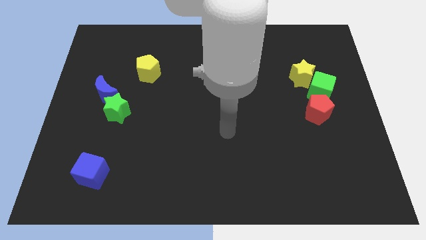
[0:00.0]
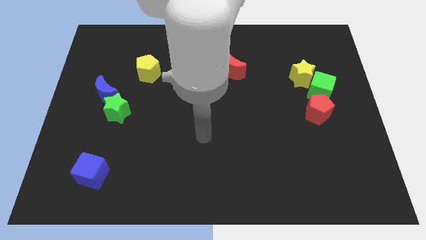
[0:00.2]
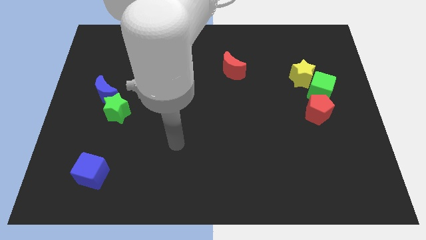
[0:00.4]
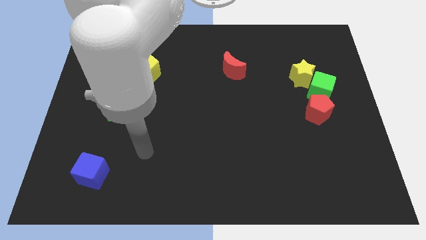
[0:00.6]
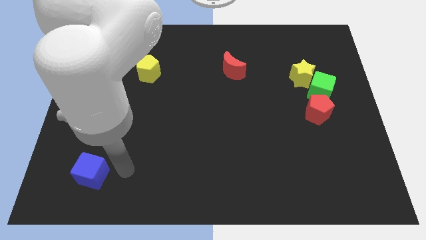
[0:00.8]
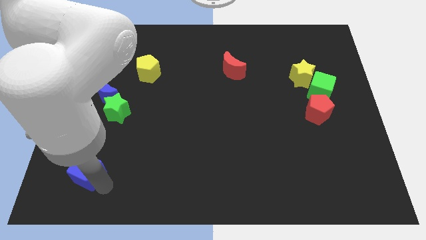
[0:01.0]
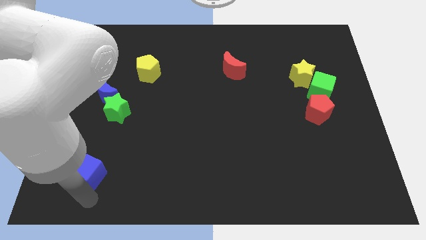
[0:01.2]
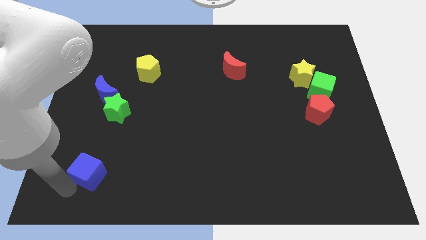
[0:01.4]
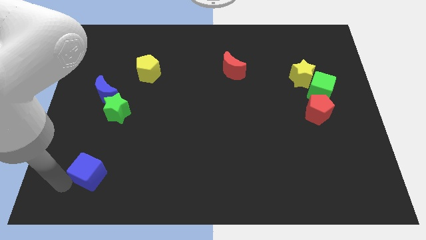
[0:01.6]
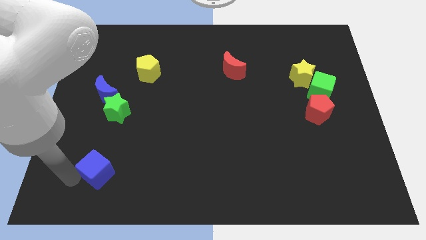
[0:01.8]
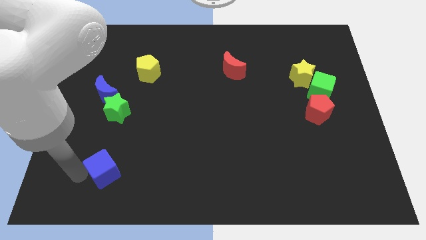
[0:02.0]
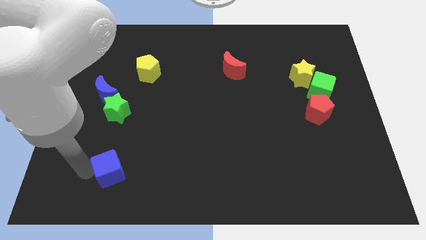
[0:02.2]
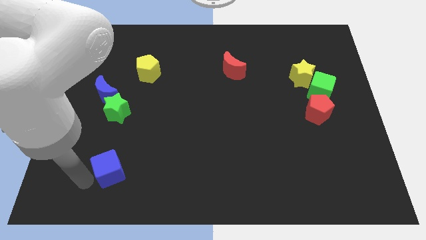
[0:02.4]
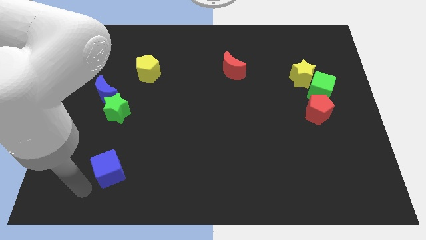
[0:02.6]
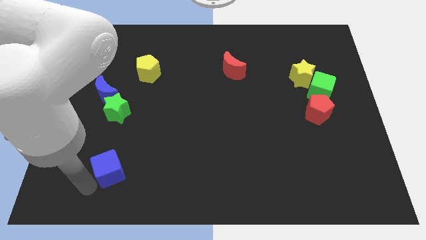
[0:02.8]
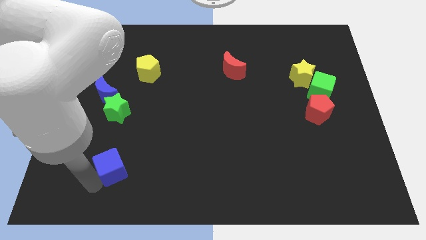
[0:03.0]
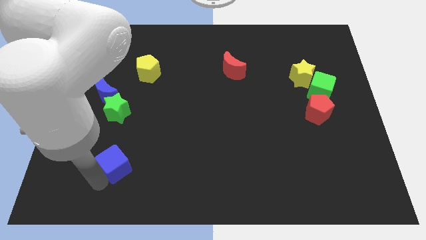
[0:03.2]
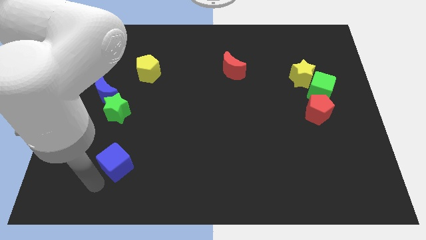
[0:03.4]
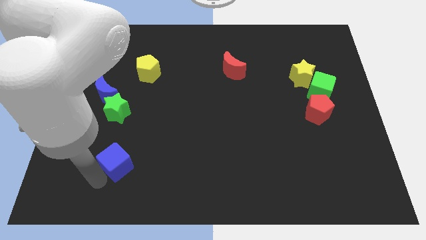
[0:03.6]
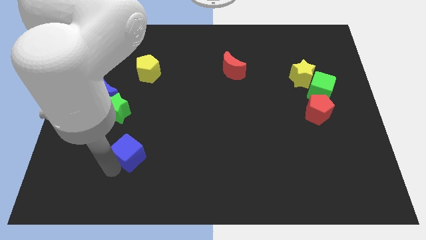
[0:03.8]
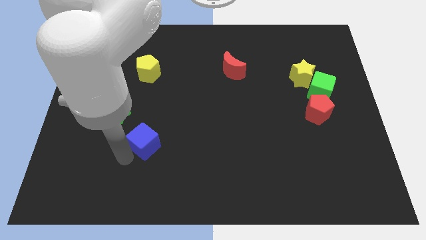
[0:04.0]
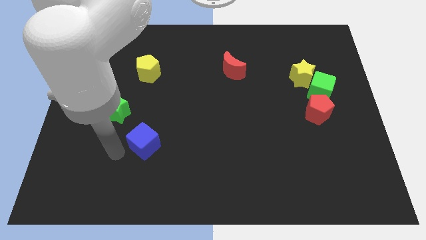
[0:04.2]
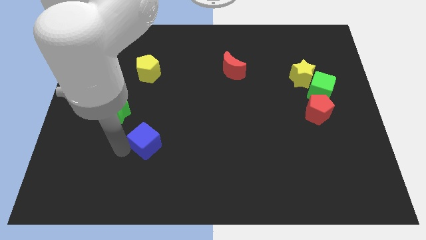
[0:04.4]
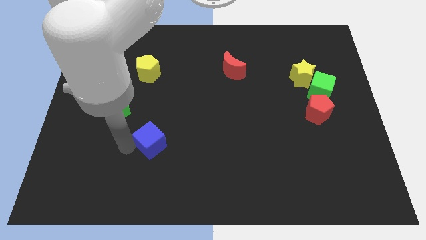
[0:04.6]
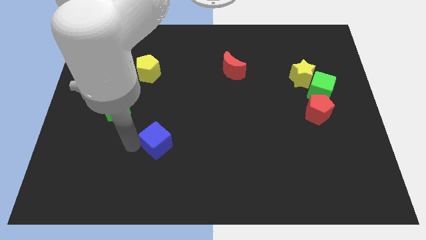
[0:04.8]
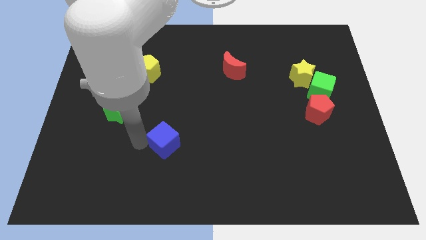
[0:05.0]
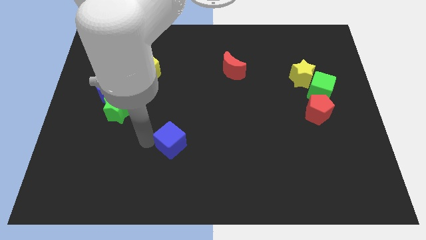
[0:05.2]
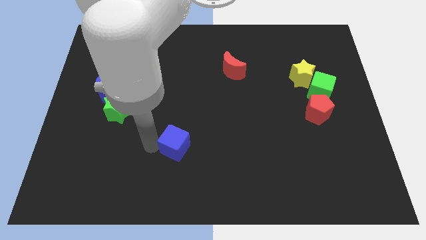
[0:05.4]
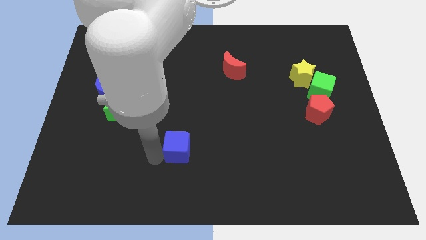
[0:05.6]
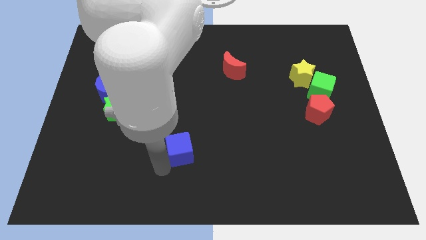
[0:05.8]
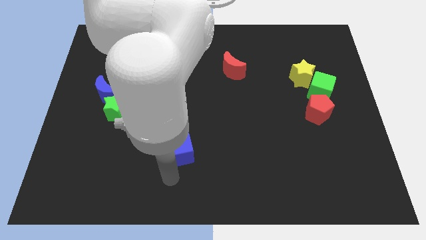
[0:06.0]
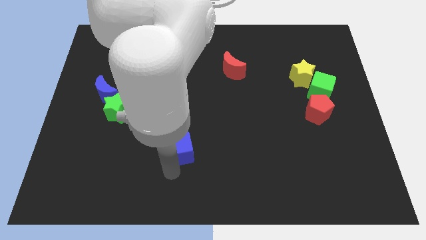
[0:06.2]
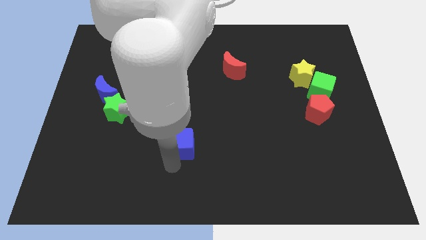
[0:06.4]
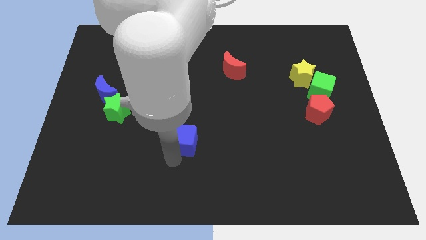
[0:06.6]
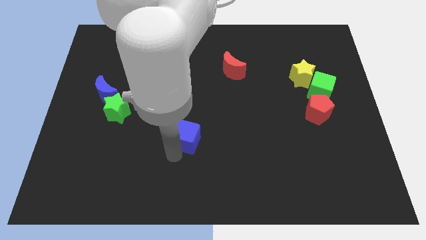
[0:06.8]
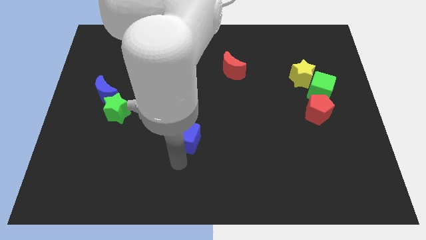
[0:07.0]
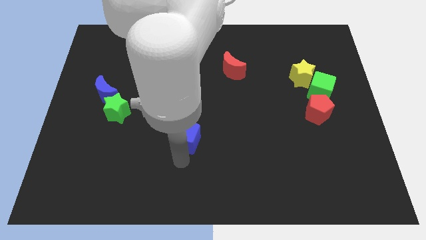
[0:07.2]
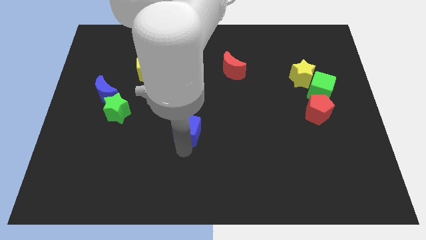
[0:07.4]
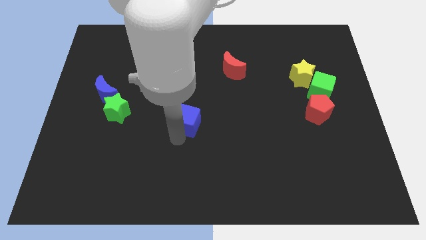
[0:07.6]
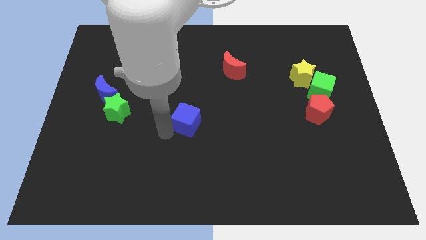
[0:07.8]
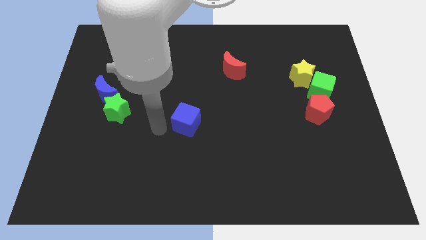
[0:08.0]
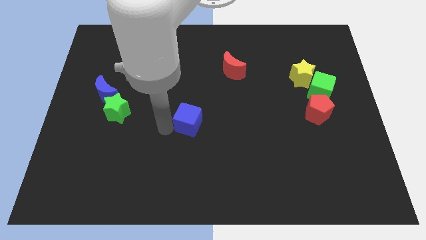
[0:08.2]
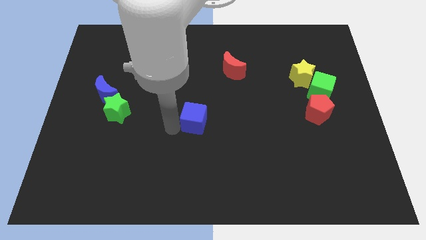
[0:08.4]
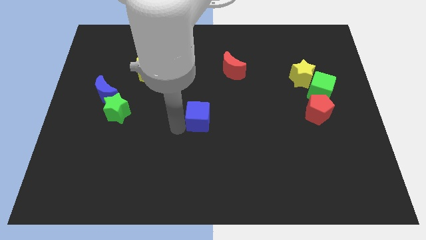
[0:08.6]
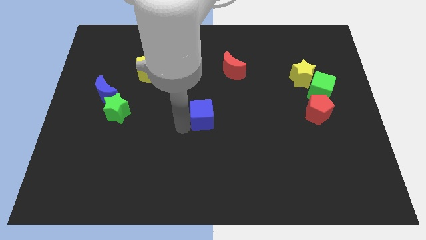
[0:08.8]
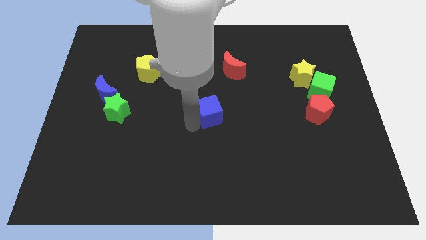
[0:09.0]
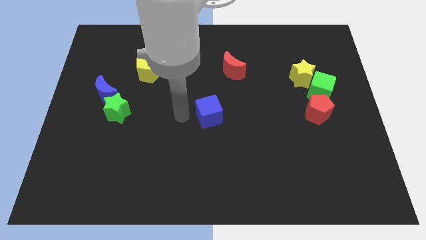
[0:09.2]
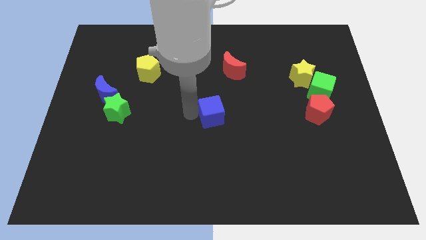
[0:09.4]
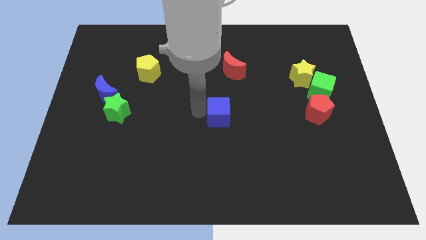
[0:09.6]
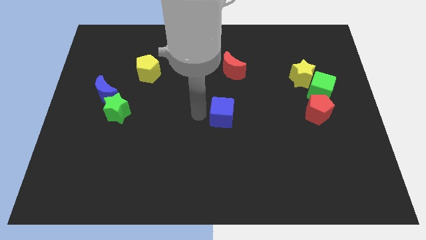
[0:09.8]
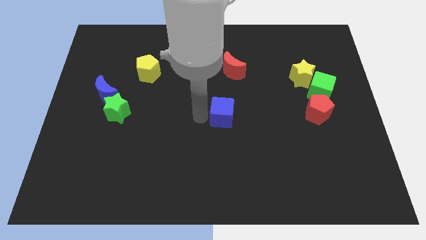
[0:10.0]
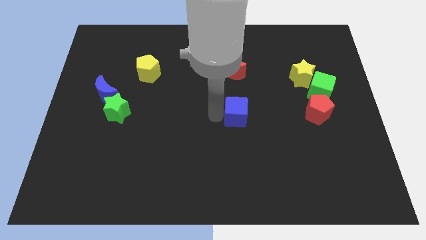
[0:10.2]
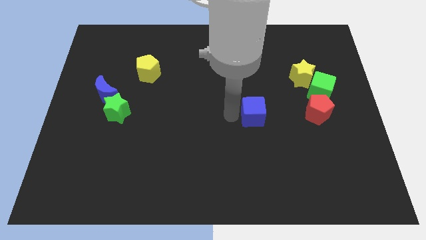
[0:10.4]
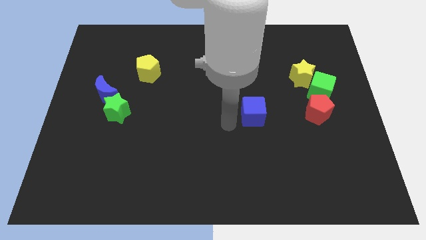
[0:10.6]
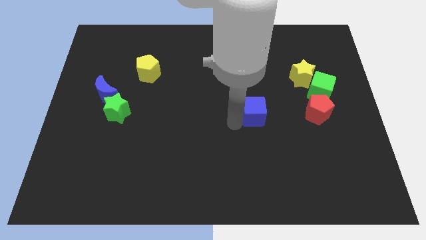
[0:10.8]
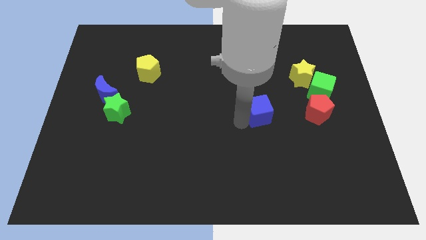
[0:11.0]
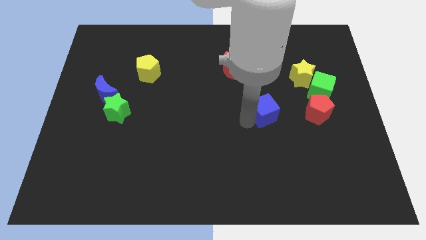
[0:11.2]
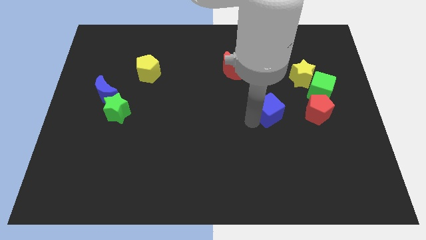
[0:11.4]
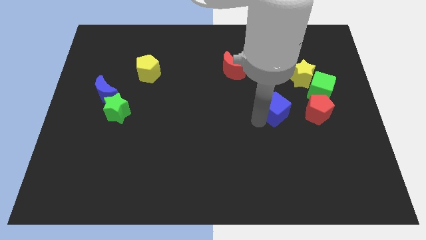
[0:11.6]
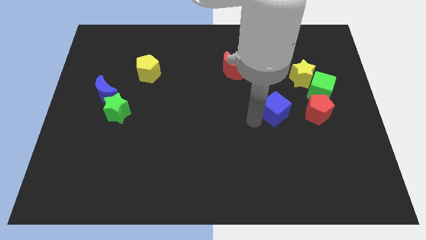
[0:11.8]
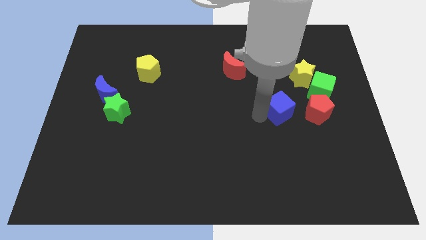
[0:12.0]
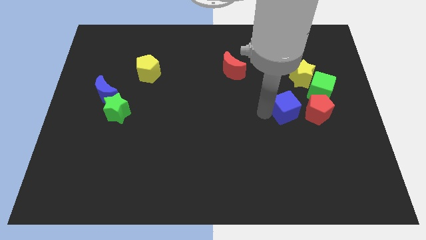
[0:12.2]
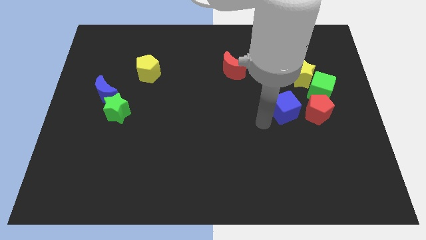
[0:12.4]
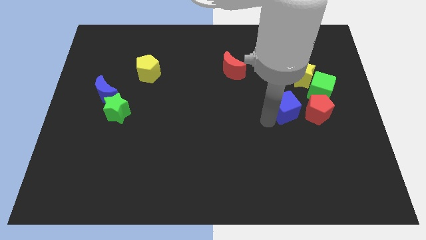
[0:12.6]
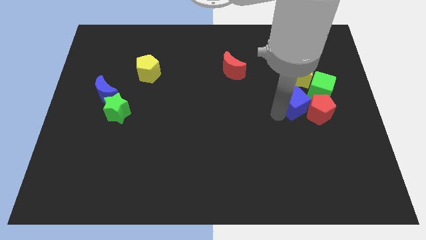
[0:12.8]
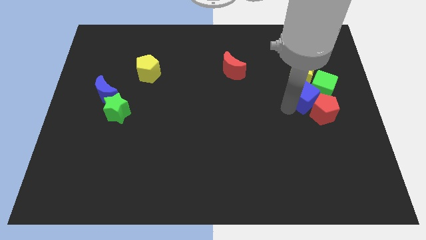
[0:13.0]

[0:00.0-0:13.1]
put the blue cube towards the green cube

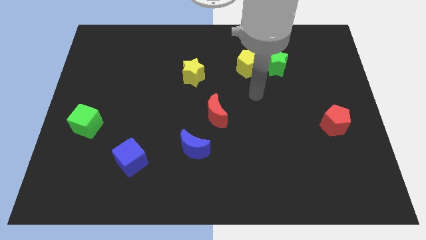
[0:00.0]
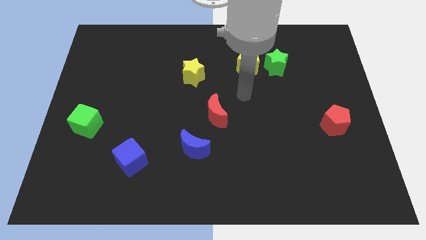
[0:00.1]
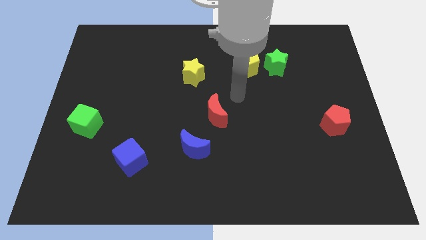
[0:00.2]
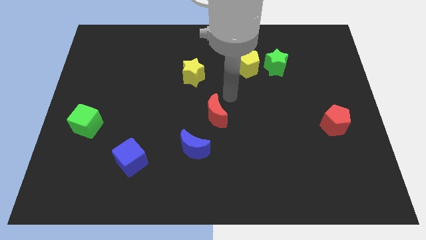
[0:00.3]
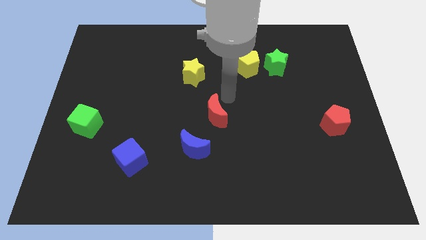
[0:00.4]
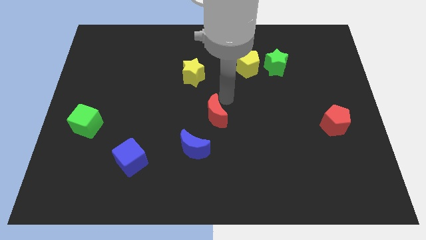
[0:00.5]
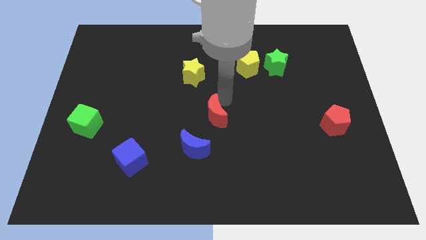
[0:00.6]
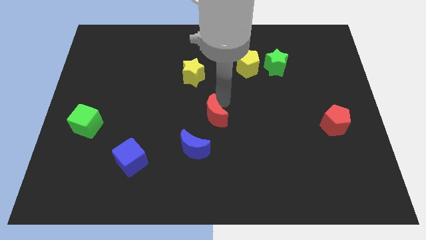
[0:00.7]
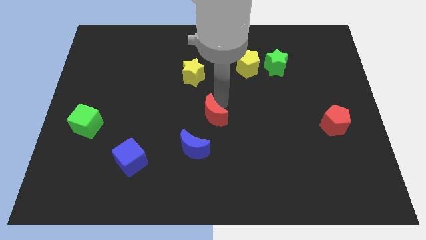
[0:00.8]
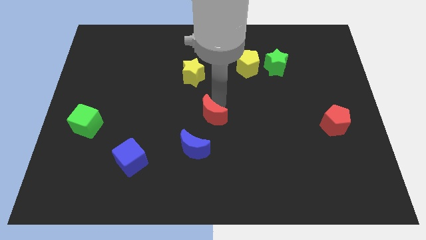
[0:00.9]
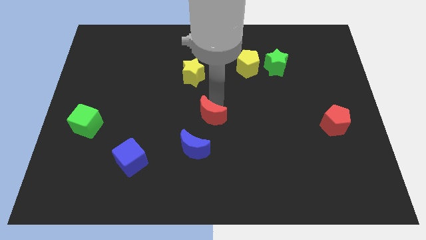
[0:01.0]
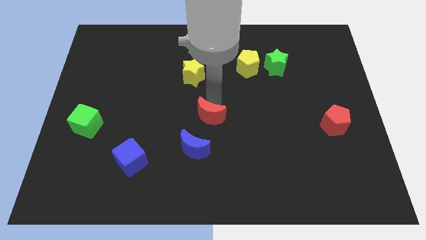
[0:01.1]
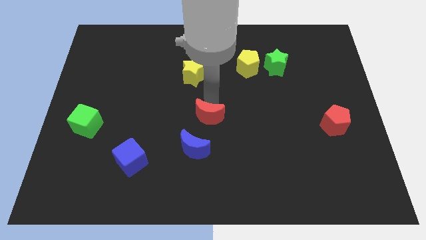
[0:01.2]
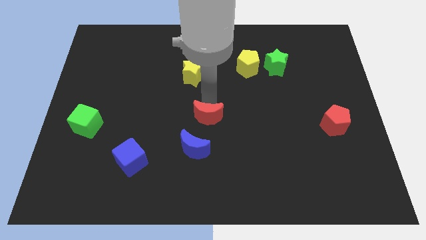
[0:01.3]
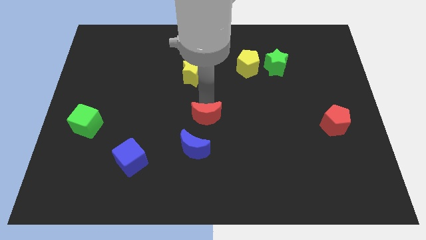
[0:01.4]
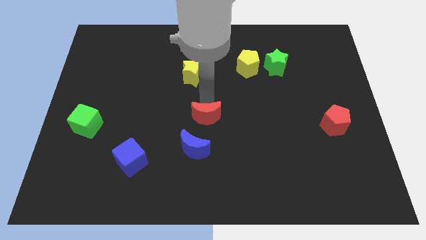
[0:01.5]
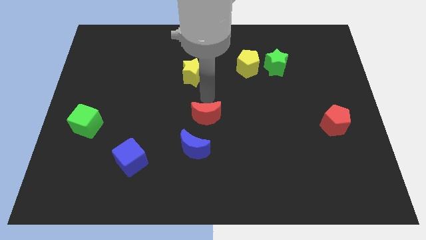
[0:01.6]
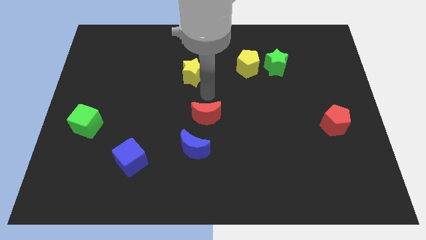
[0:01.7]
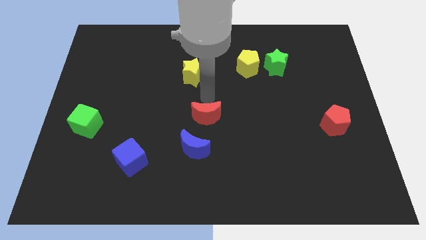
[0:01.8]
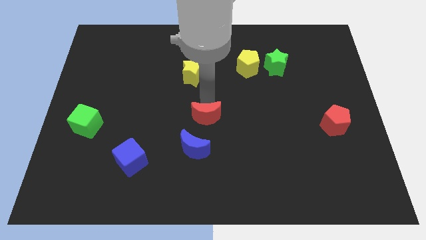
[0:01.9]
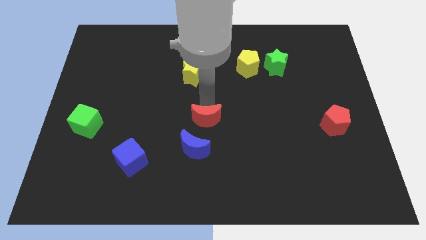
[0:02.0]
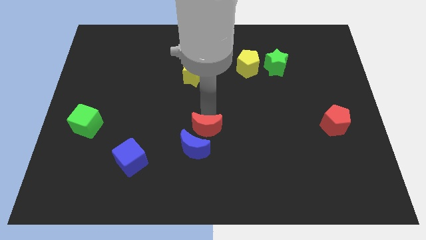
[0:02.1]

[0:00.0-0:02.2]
move the red moon close to the blue moon
